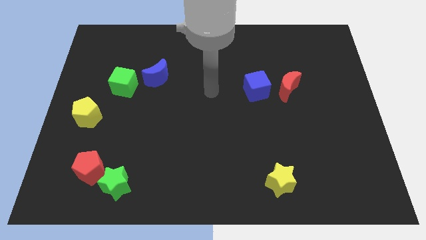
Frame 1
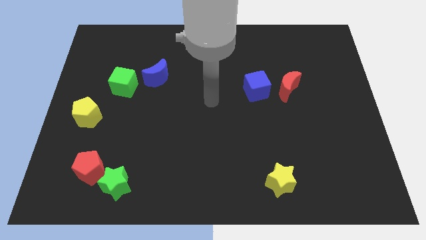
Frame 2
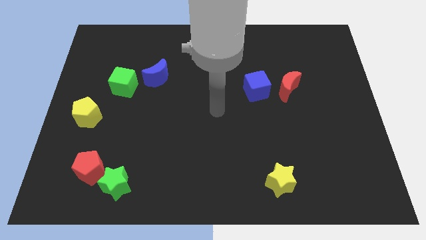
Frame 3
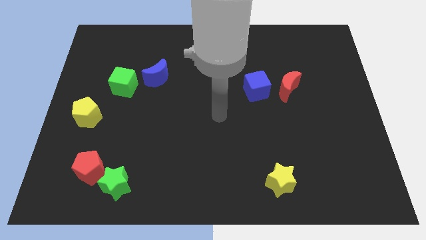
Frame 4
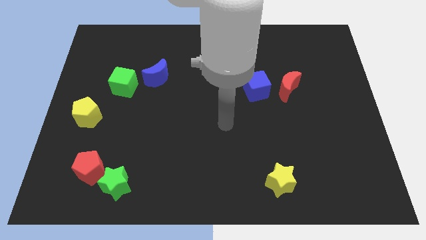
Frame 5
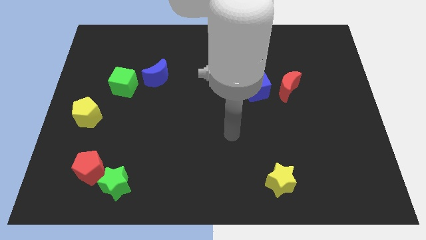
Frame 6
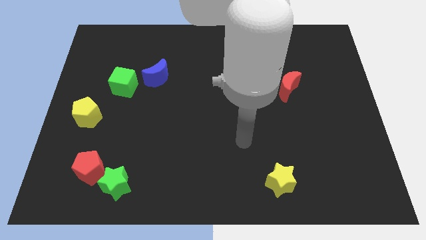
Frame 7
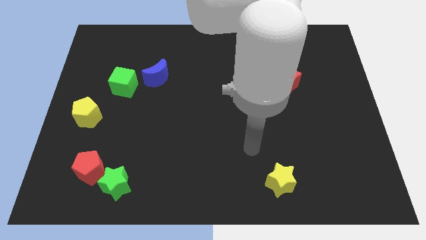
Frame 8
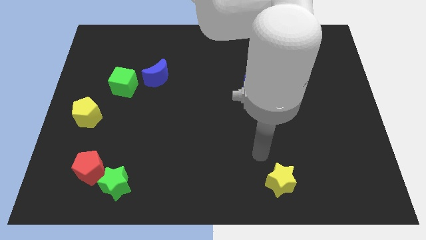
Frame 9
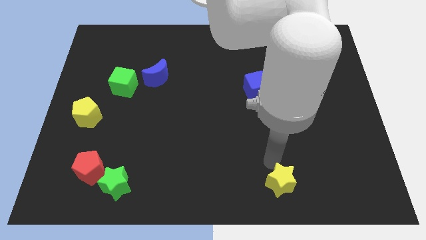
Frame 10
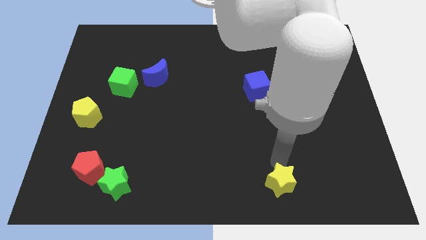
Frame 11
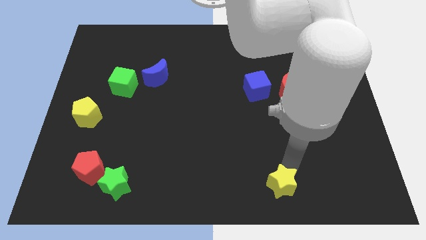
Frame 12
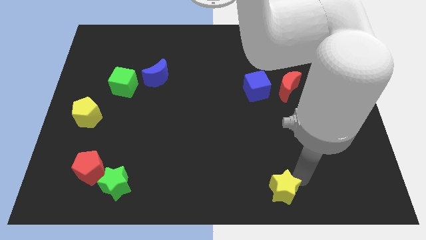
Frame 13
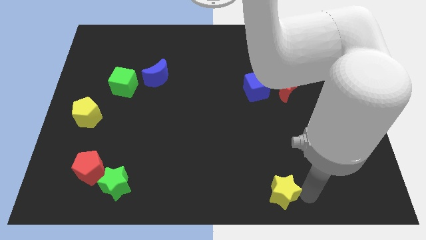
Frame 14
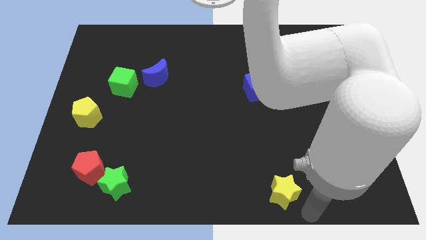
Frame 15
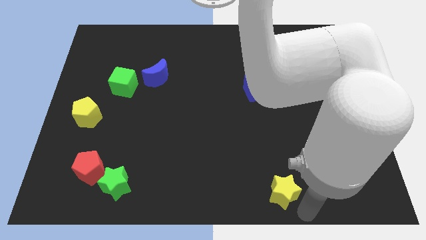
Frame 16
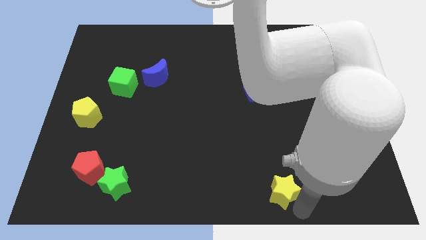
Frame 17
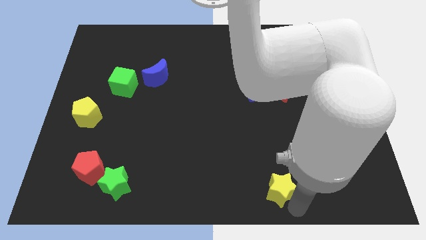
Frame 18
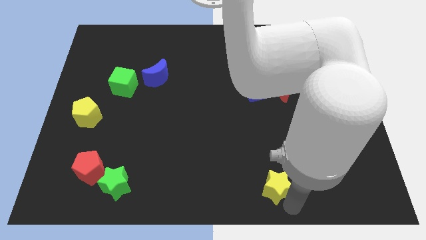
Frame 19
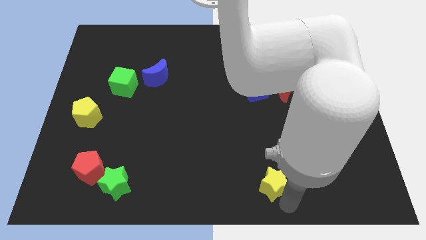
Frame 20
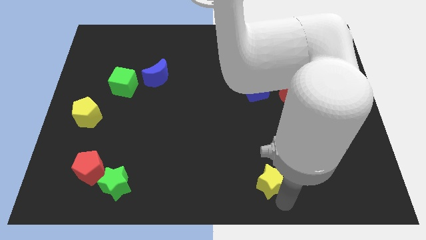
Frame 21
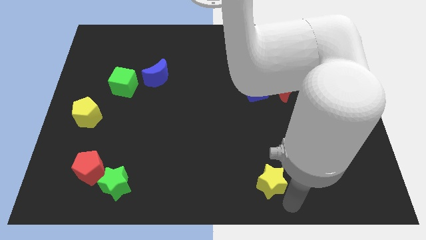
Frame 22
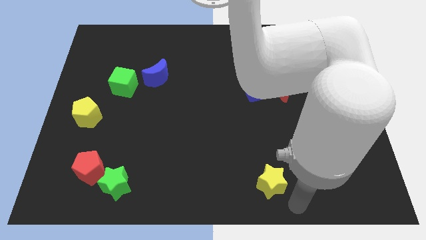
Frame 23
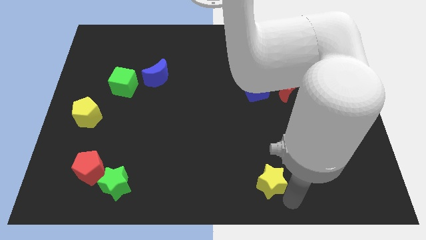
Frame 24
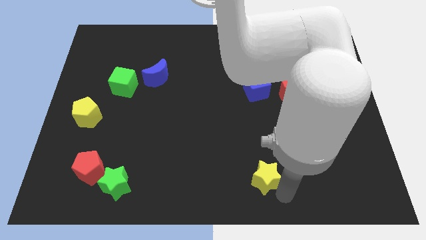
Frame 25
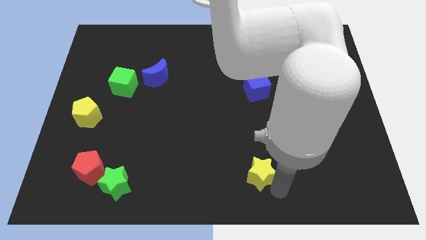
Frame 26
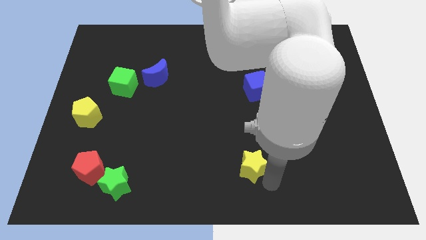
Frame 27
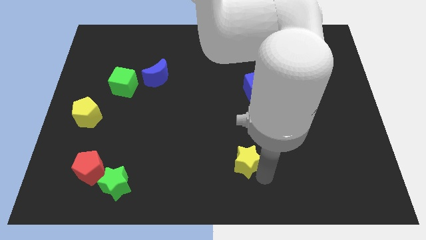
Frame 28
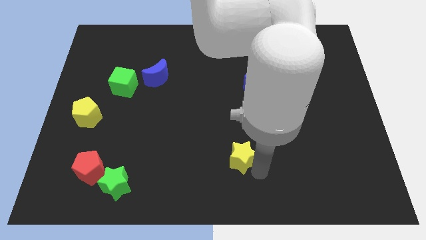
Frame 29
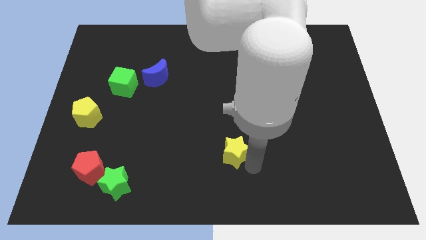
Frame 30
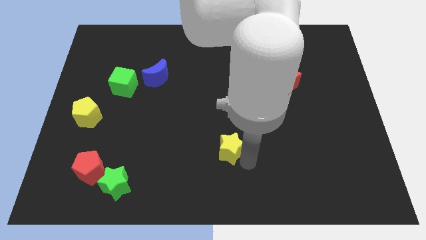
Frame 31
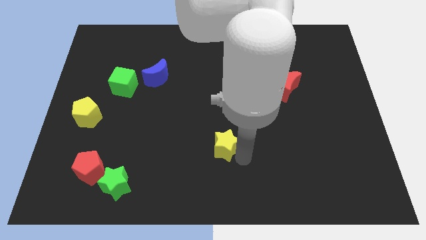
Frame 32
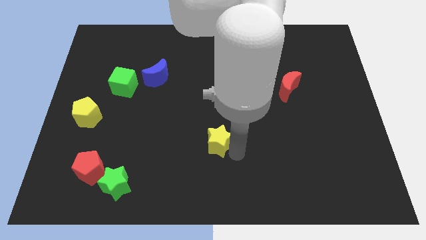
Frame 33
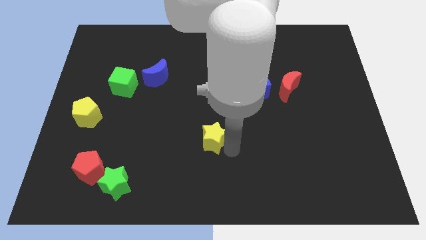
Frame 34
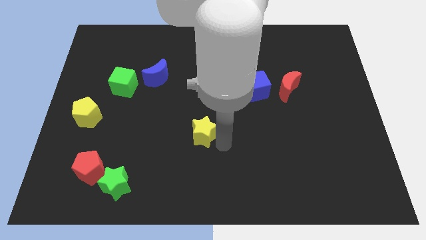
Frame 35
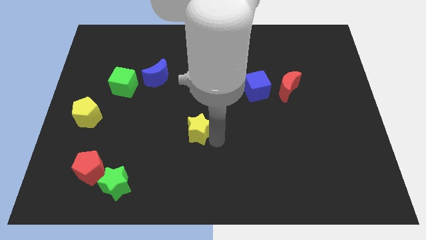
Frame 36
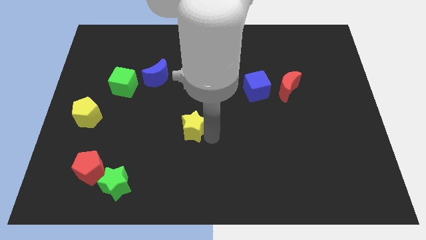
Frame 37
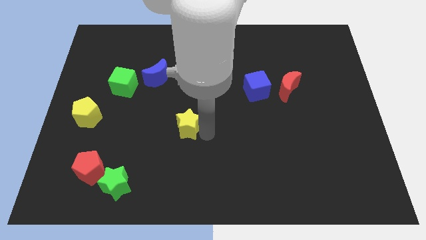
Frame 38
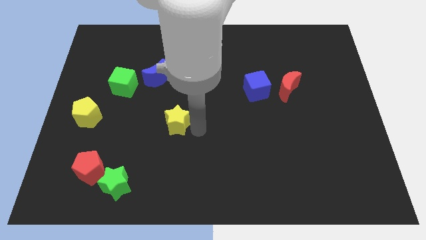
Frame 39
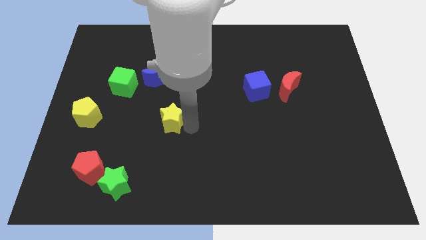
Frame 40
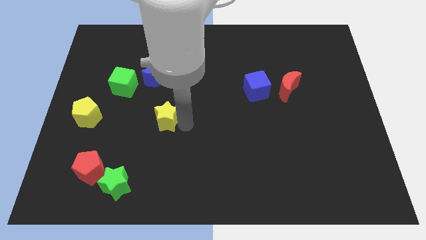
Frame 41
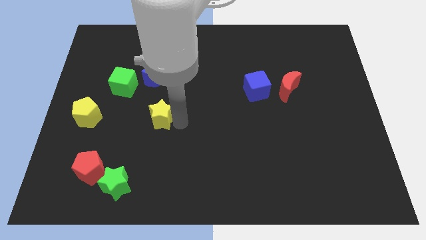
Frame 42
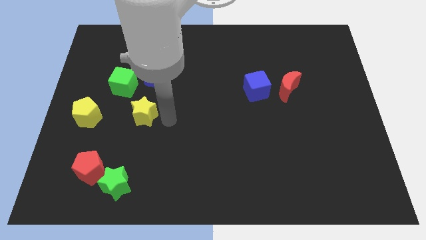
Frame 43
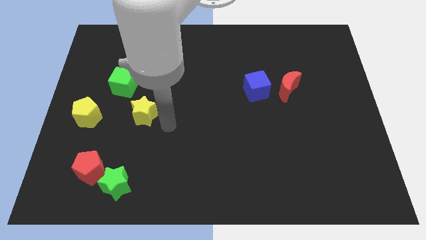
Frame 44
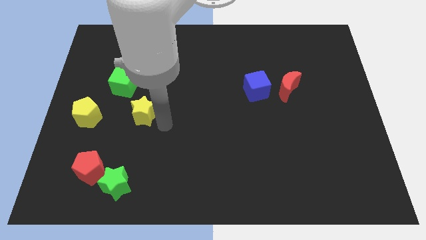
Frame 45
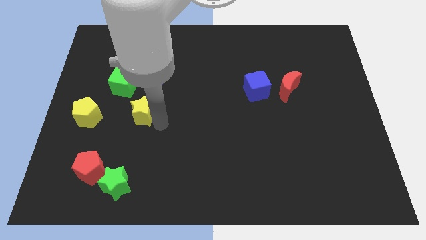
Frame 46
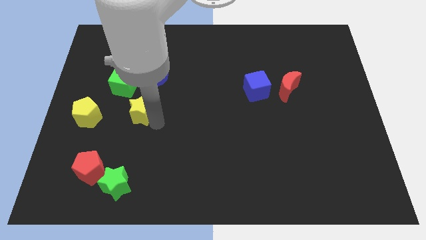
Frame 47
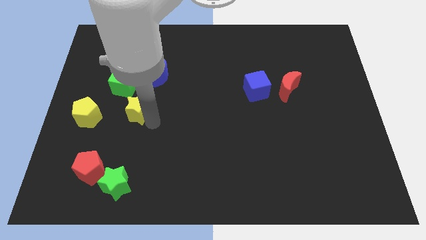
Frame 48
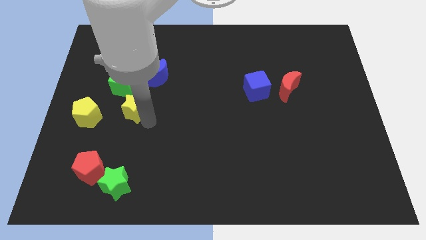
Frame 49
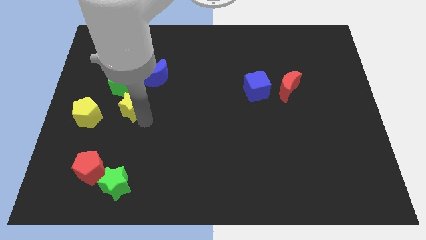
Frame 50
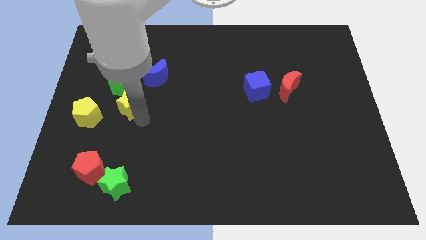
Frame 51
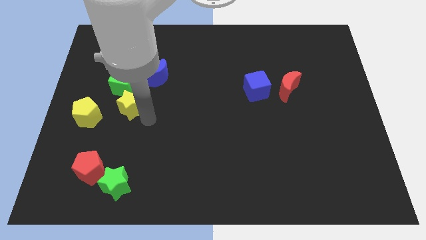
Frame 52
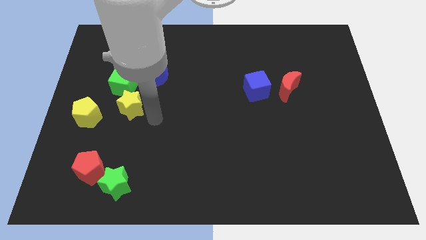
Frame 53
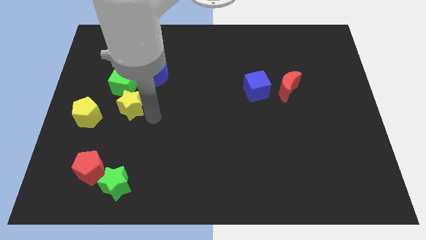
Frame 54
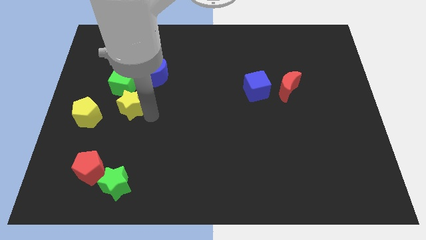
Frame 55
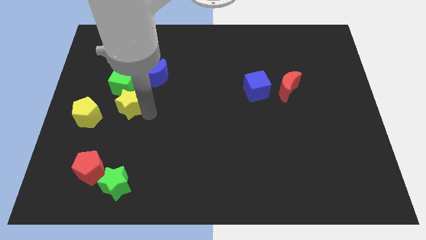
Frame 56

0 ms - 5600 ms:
move the yellow star to the top right of the yellow pentagon

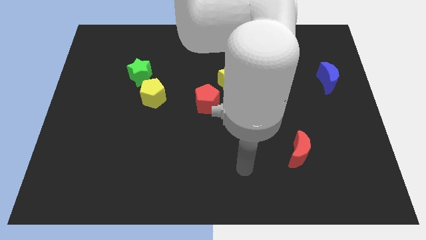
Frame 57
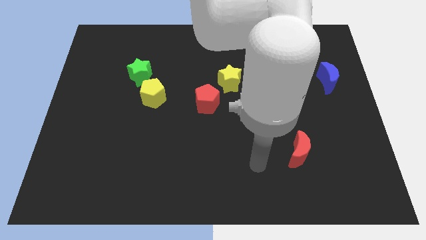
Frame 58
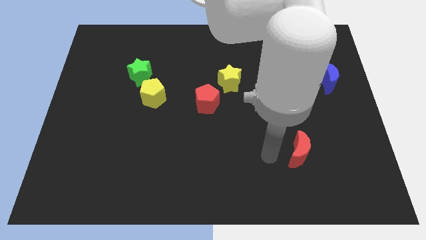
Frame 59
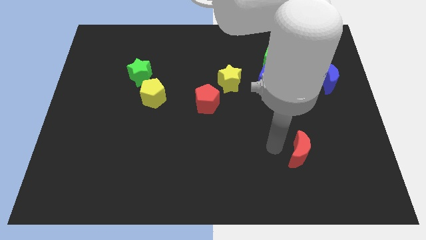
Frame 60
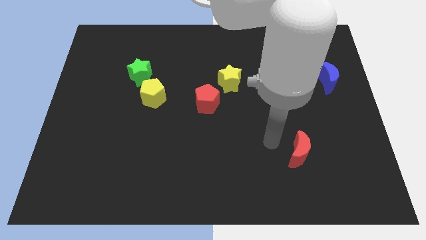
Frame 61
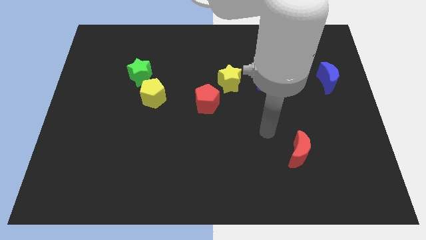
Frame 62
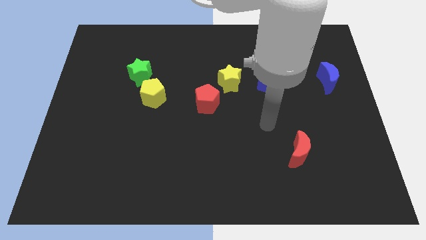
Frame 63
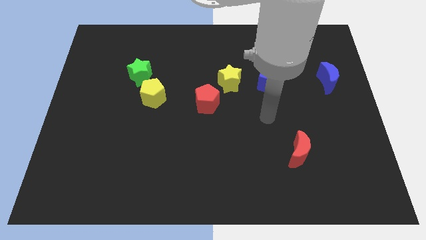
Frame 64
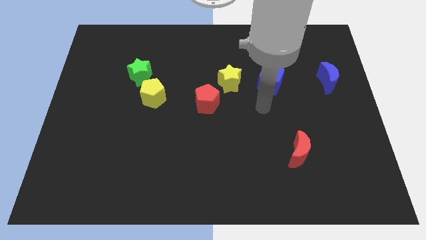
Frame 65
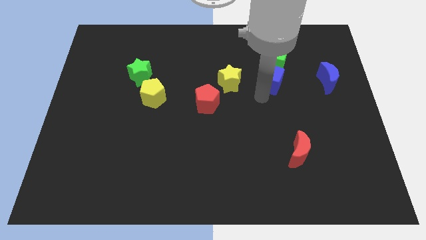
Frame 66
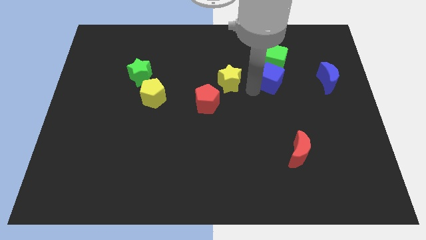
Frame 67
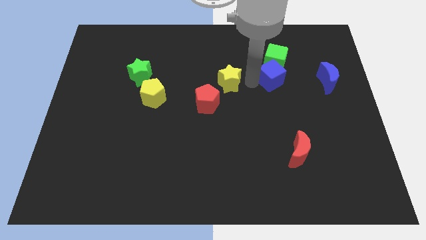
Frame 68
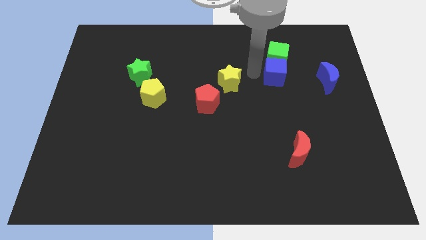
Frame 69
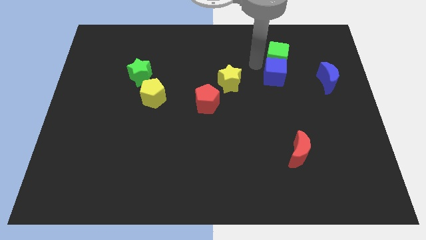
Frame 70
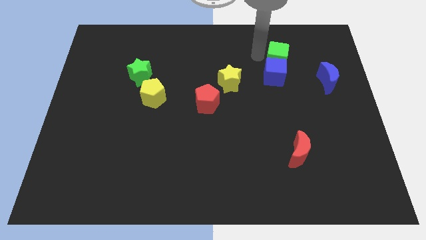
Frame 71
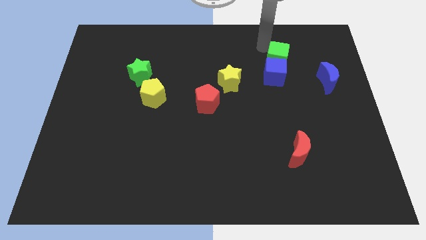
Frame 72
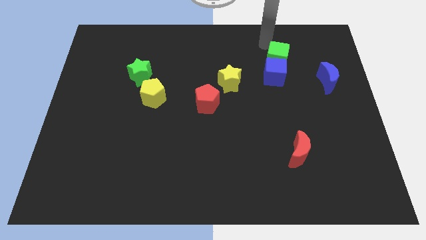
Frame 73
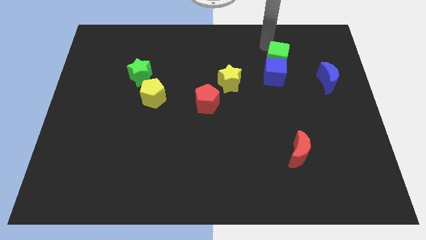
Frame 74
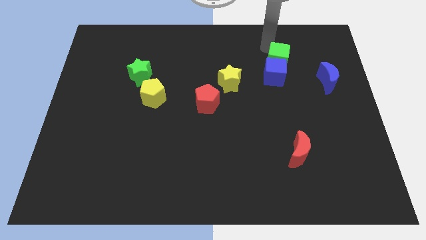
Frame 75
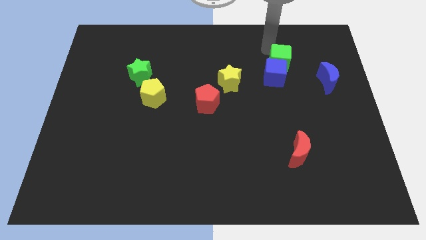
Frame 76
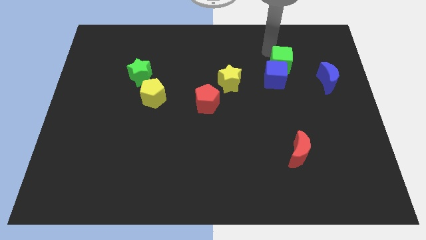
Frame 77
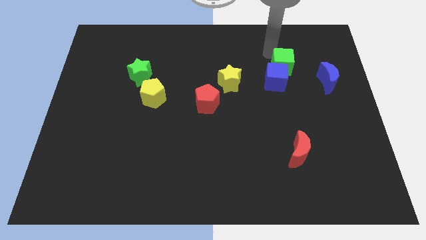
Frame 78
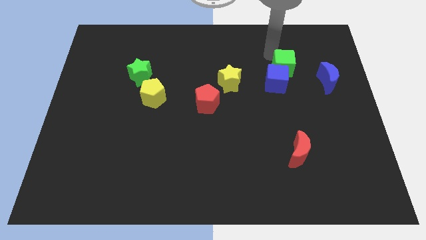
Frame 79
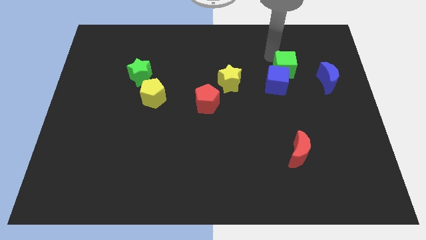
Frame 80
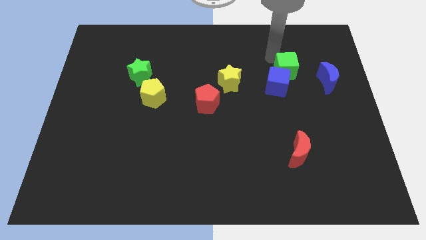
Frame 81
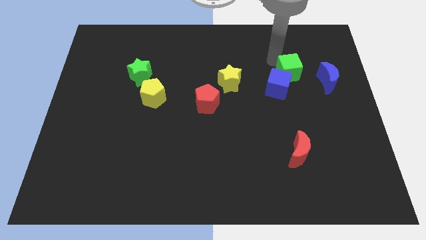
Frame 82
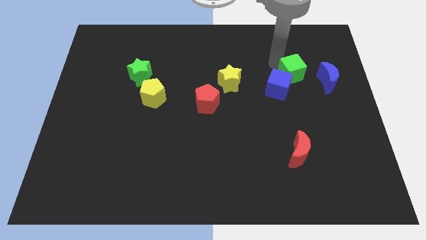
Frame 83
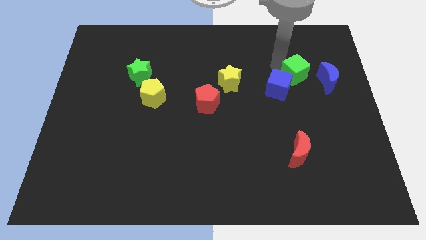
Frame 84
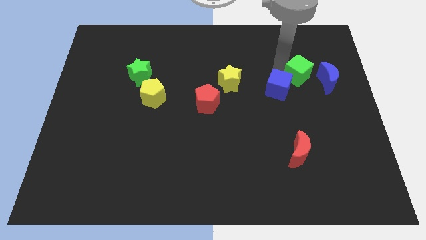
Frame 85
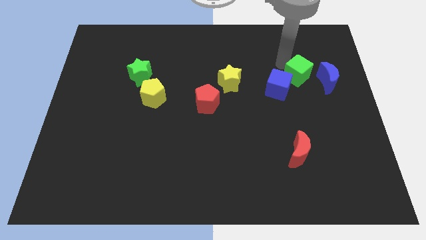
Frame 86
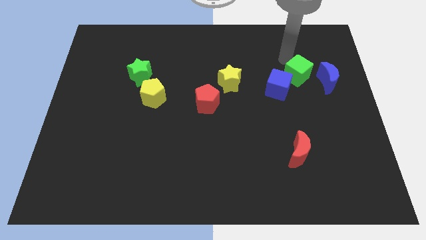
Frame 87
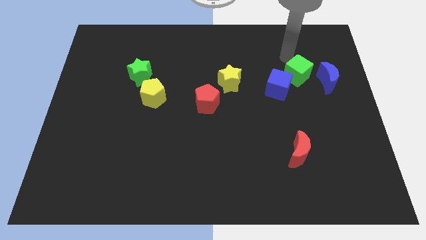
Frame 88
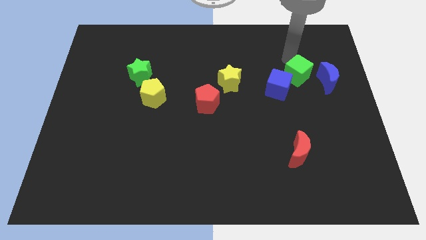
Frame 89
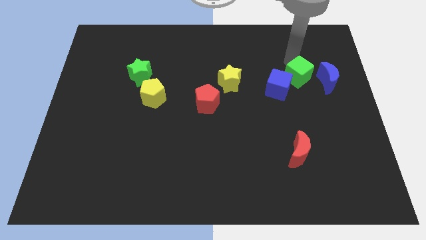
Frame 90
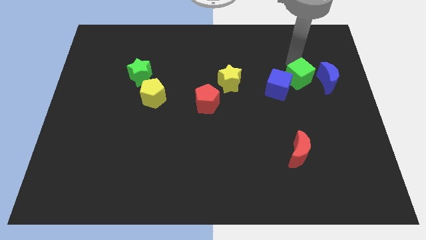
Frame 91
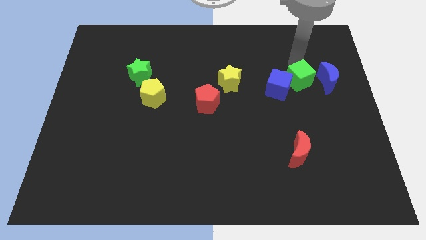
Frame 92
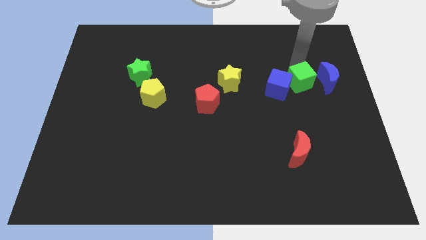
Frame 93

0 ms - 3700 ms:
put the green cube to the bottom left of the blue moon
